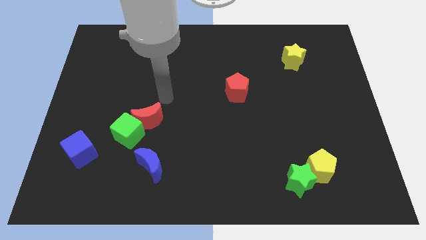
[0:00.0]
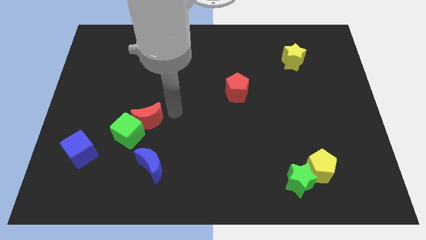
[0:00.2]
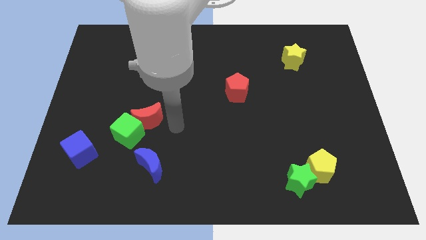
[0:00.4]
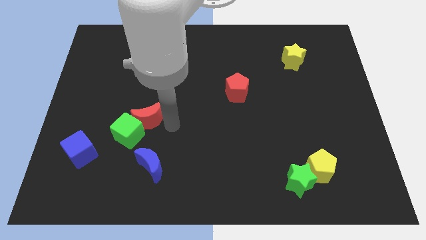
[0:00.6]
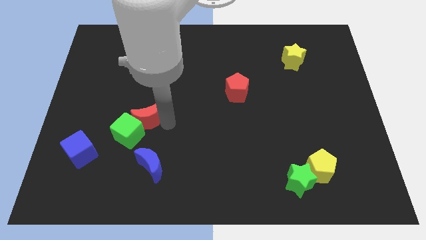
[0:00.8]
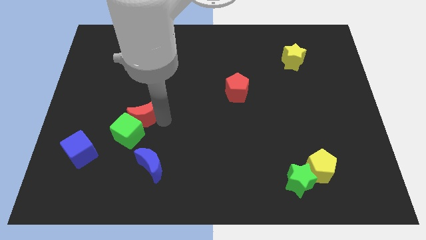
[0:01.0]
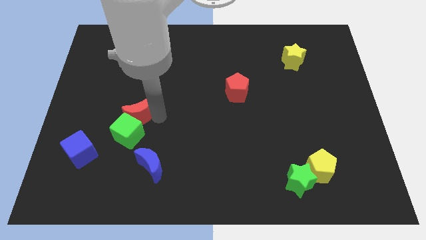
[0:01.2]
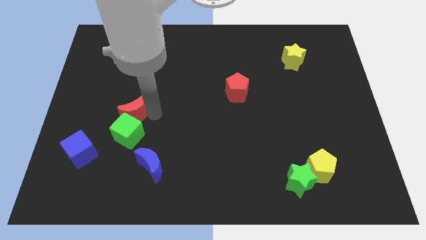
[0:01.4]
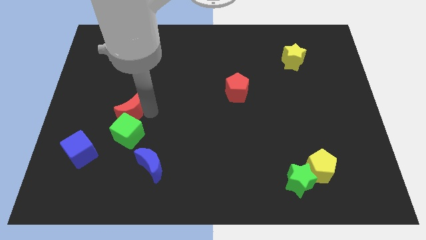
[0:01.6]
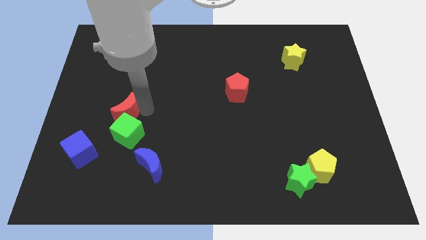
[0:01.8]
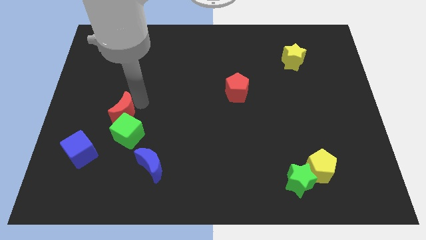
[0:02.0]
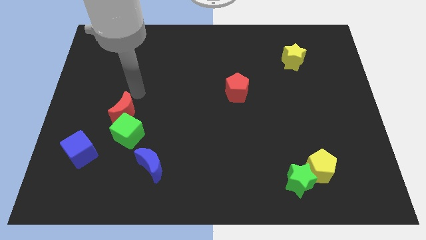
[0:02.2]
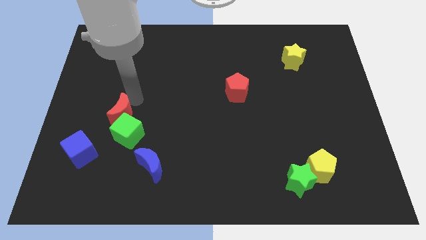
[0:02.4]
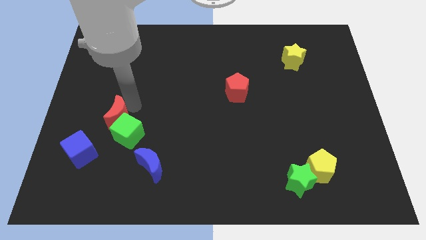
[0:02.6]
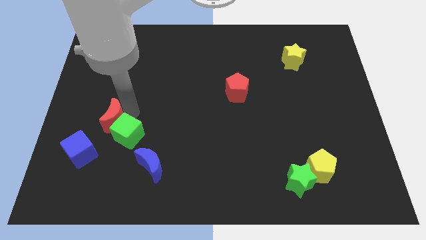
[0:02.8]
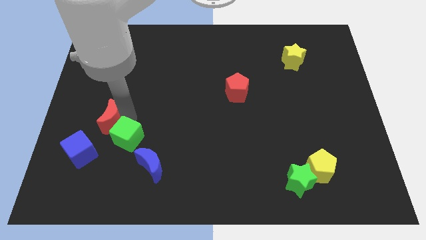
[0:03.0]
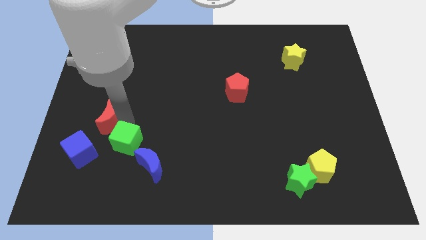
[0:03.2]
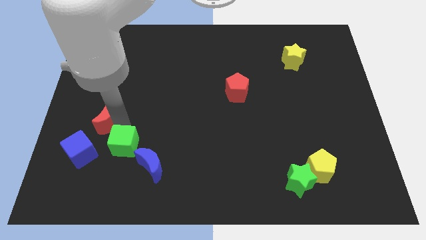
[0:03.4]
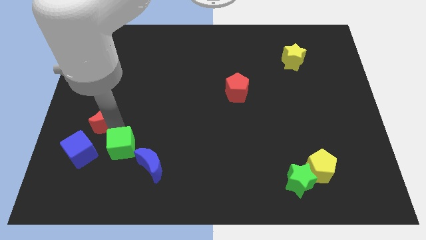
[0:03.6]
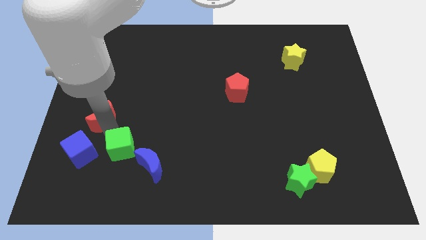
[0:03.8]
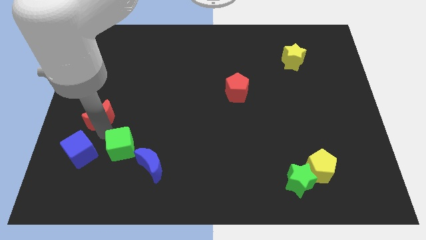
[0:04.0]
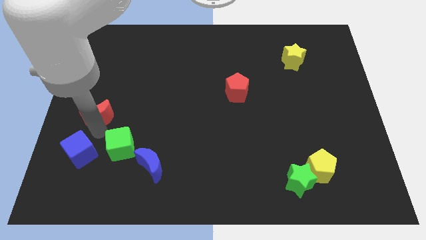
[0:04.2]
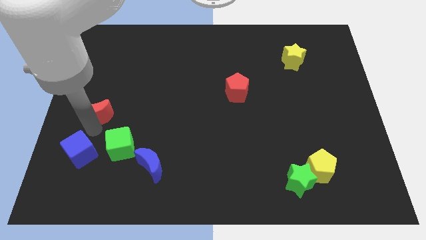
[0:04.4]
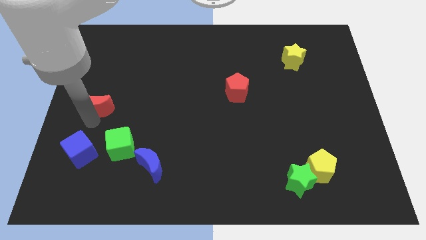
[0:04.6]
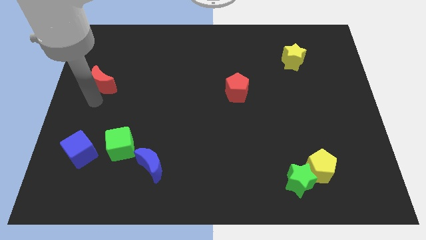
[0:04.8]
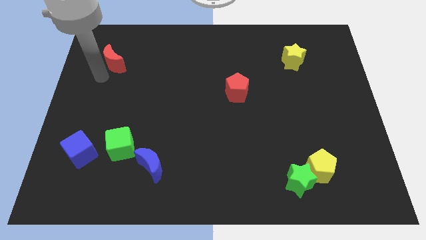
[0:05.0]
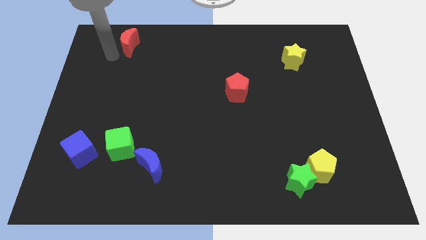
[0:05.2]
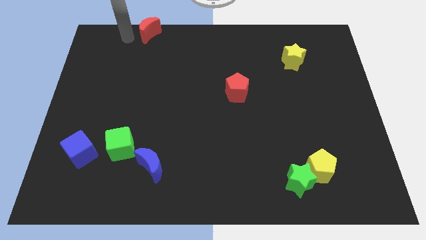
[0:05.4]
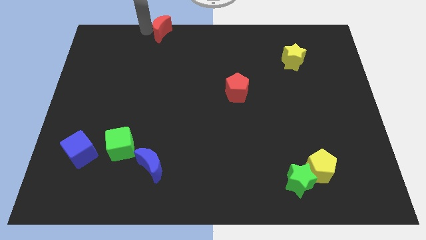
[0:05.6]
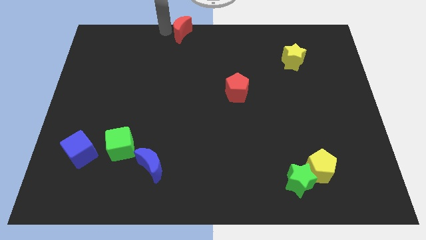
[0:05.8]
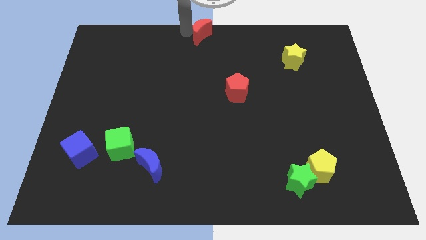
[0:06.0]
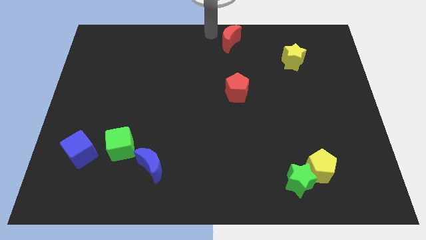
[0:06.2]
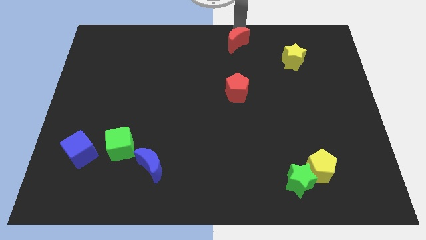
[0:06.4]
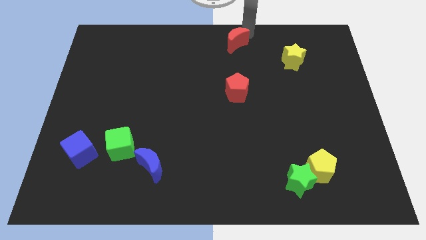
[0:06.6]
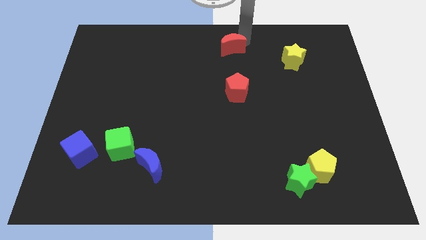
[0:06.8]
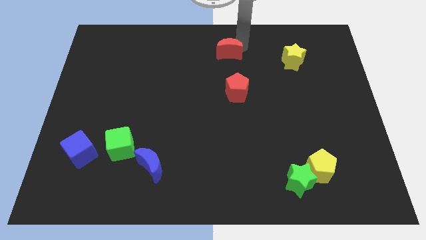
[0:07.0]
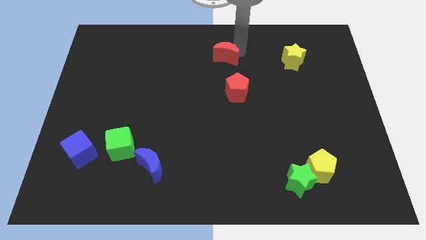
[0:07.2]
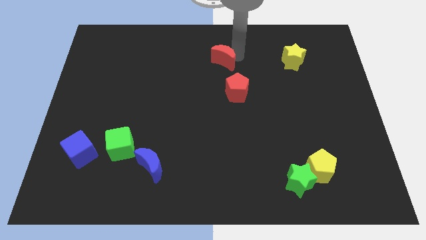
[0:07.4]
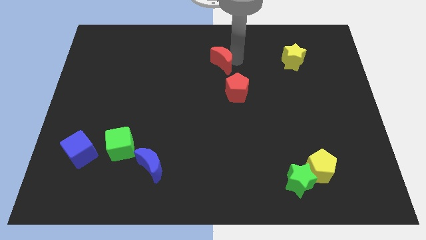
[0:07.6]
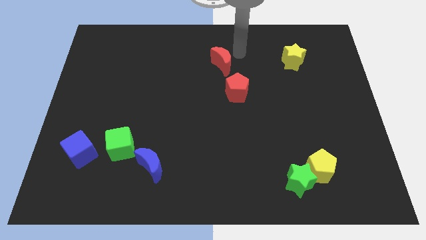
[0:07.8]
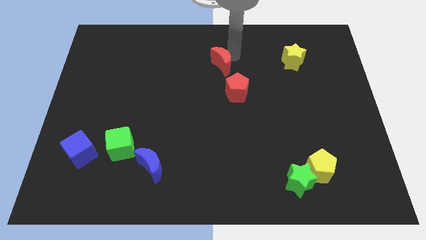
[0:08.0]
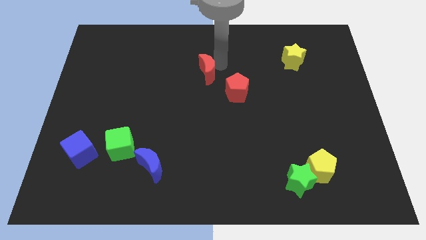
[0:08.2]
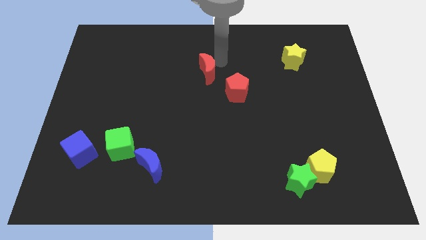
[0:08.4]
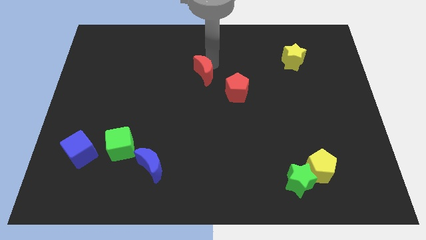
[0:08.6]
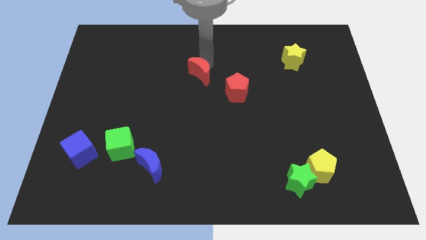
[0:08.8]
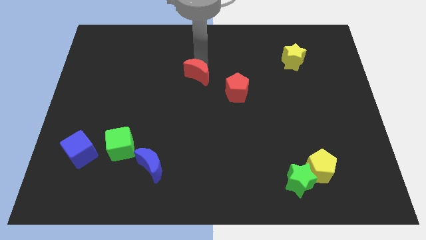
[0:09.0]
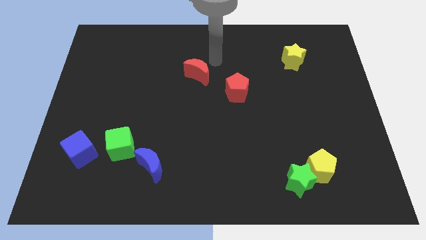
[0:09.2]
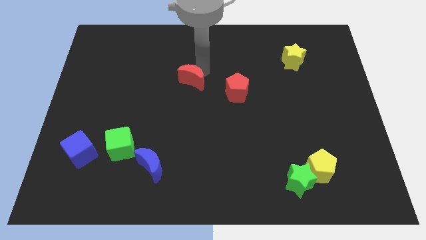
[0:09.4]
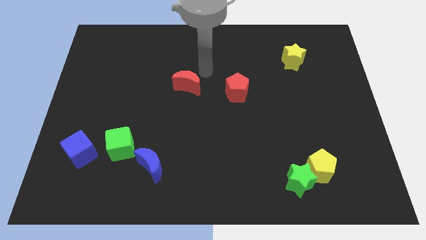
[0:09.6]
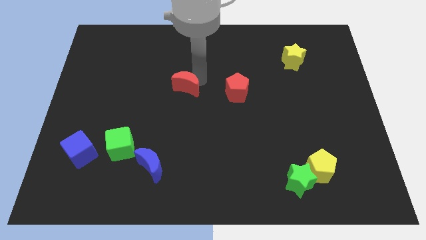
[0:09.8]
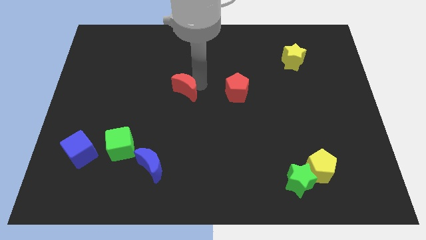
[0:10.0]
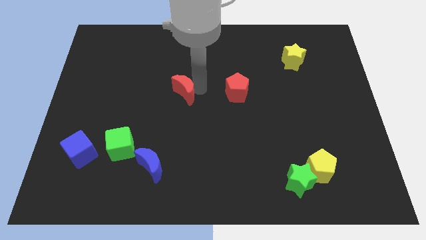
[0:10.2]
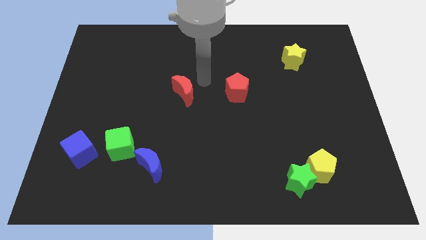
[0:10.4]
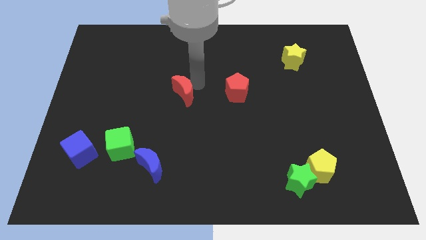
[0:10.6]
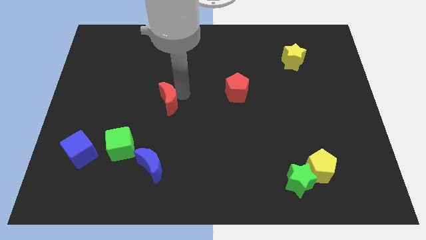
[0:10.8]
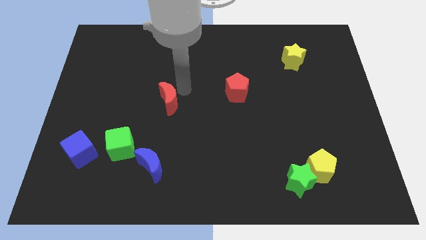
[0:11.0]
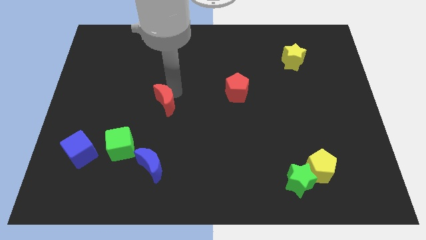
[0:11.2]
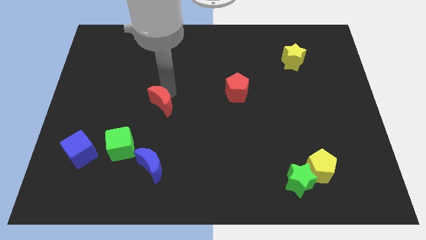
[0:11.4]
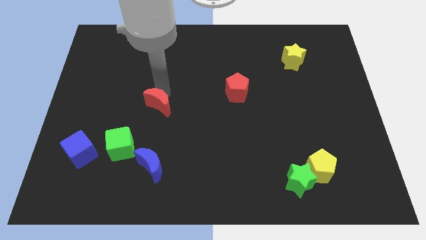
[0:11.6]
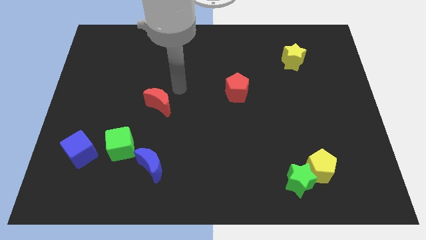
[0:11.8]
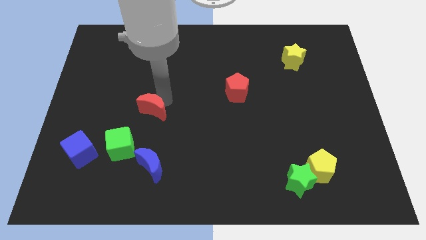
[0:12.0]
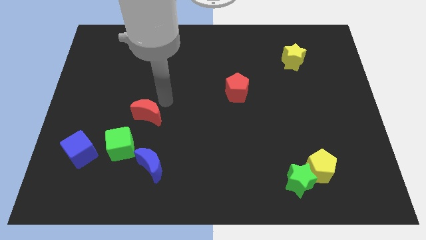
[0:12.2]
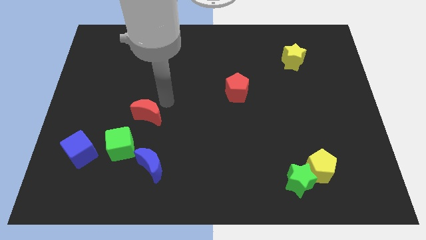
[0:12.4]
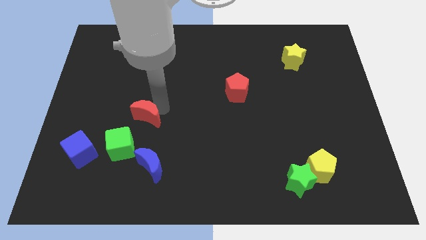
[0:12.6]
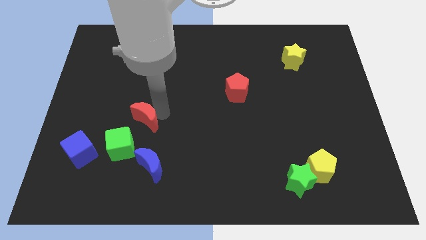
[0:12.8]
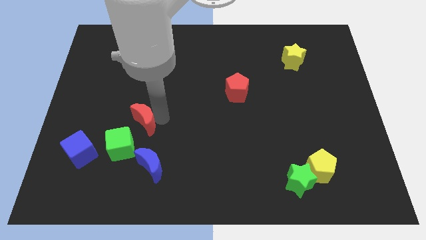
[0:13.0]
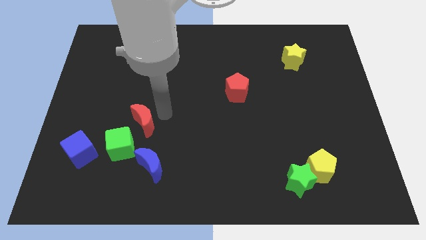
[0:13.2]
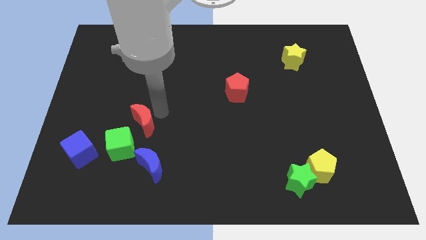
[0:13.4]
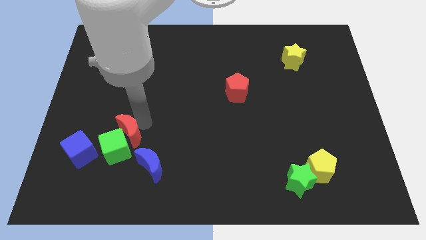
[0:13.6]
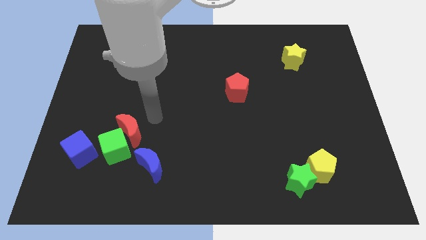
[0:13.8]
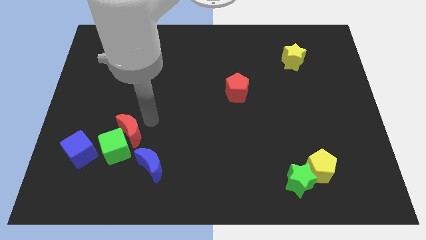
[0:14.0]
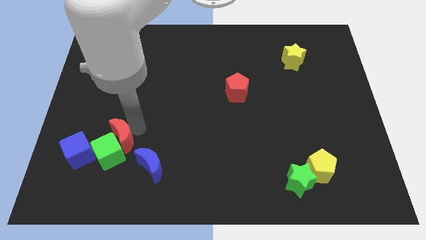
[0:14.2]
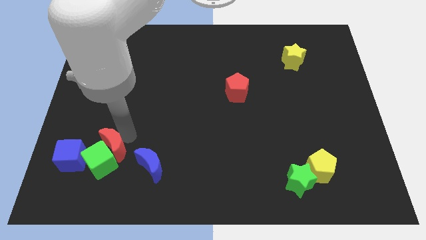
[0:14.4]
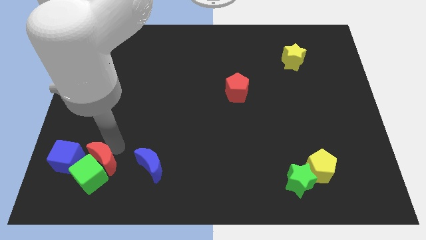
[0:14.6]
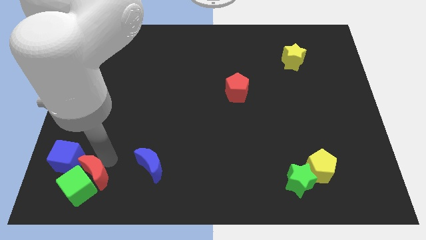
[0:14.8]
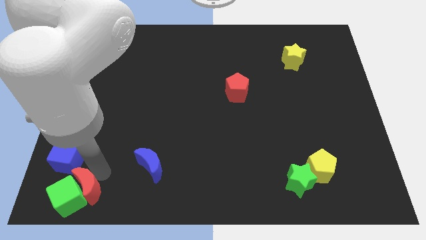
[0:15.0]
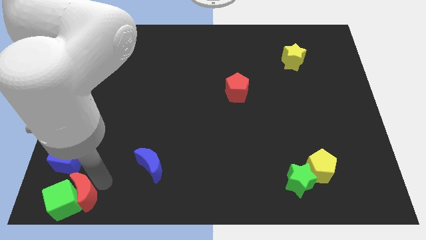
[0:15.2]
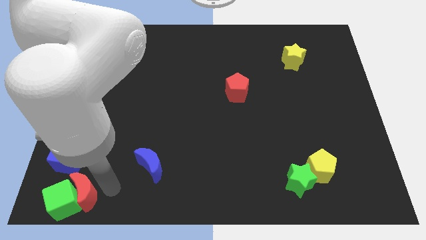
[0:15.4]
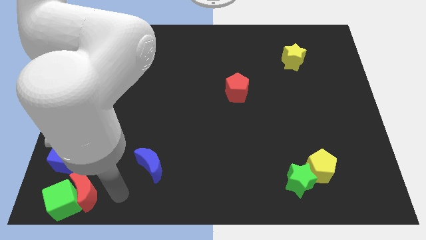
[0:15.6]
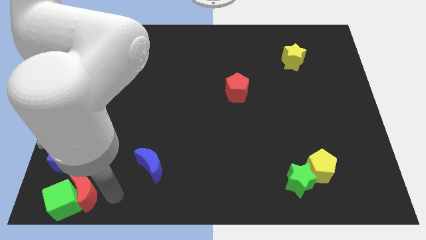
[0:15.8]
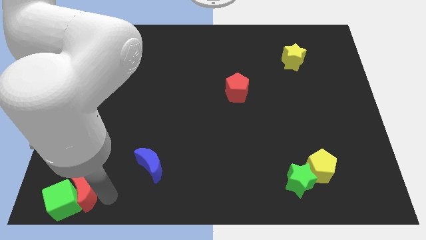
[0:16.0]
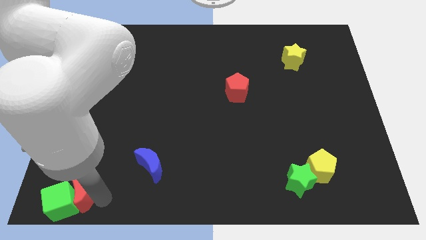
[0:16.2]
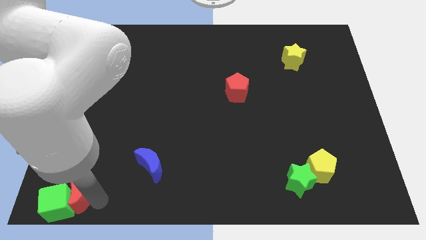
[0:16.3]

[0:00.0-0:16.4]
move the red moon to the bottom left of the board
